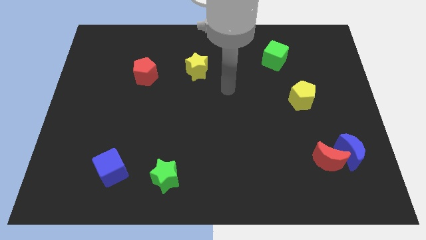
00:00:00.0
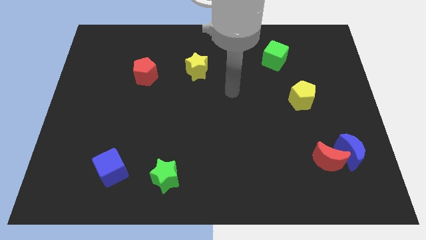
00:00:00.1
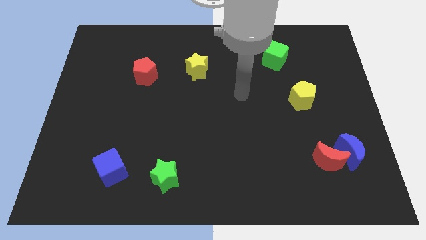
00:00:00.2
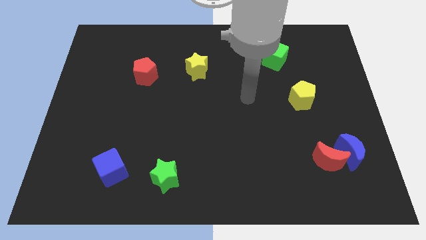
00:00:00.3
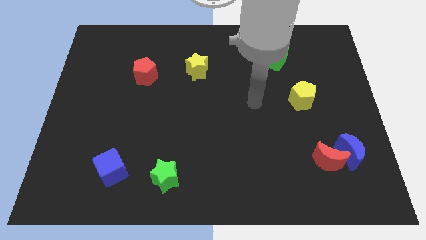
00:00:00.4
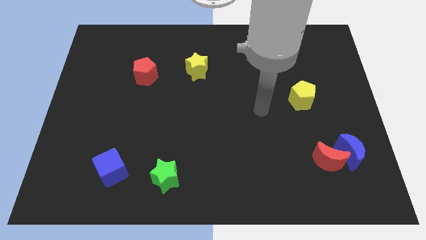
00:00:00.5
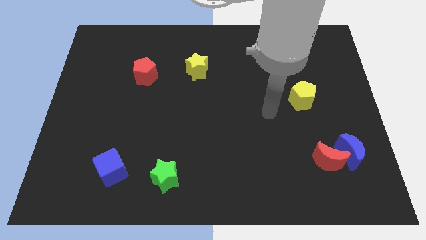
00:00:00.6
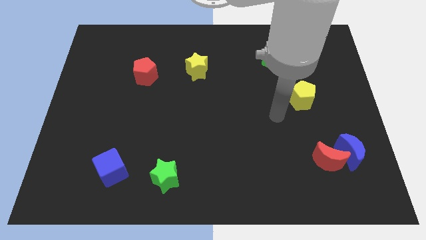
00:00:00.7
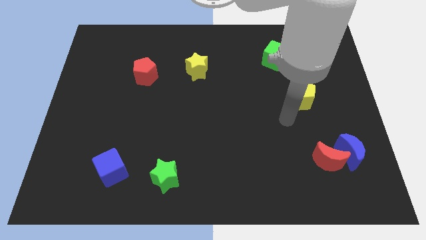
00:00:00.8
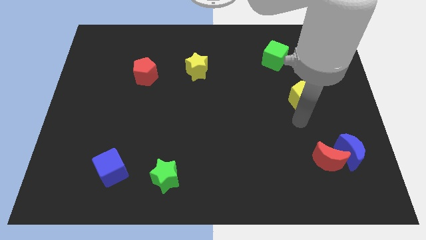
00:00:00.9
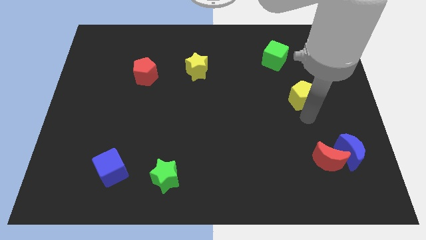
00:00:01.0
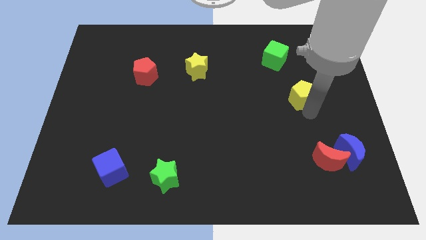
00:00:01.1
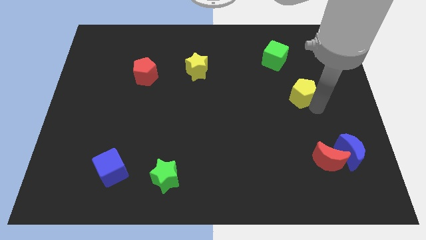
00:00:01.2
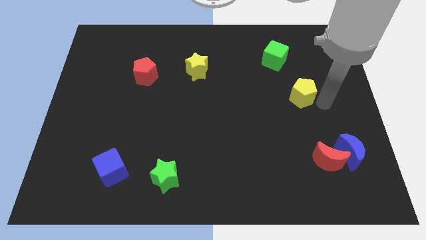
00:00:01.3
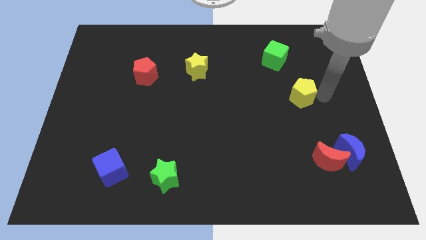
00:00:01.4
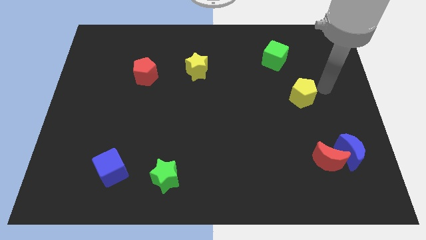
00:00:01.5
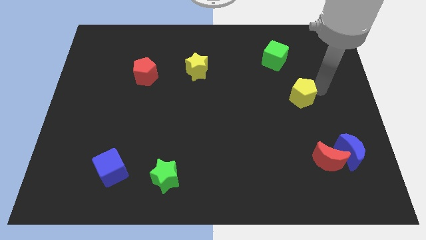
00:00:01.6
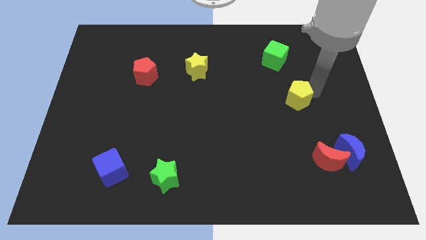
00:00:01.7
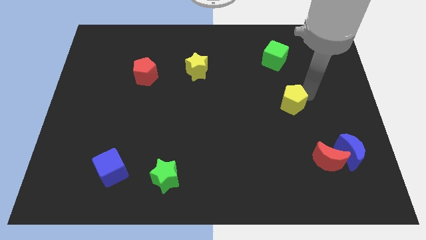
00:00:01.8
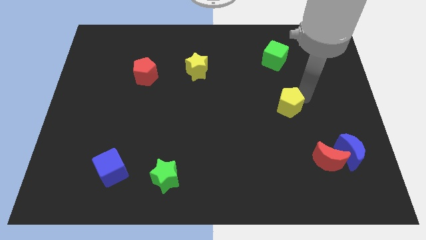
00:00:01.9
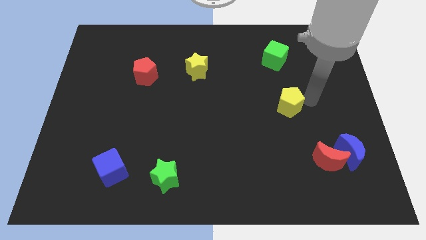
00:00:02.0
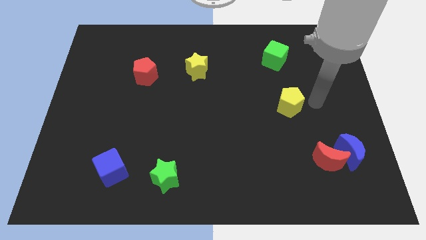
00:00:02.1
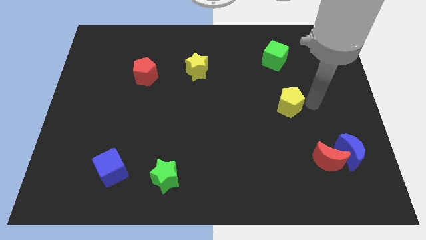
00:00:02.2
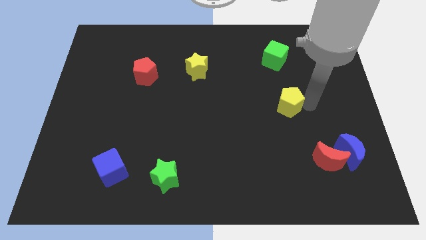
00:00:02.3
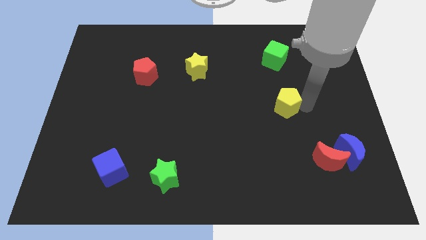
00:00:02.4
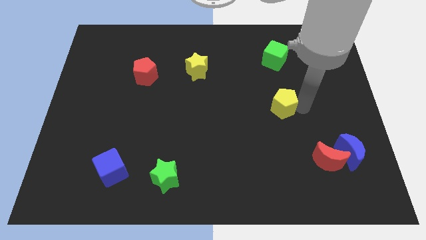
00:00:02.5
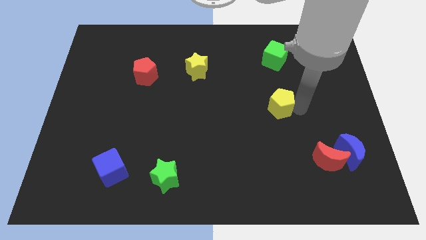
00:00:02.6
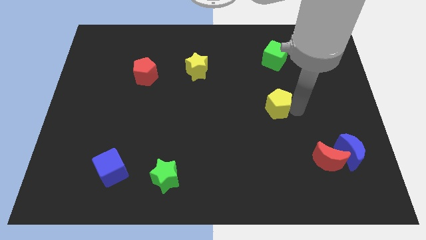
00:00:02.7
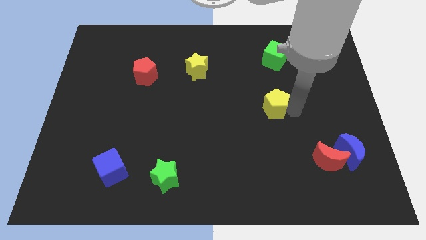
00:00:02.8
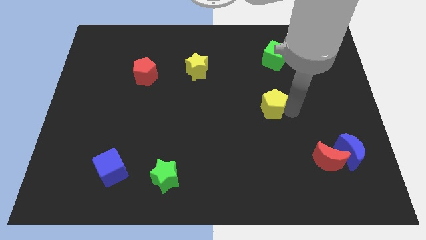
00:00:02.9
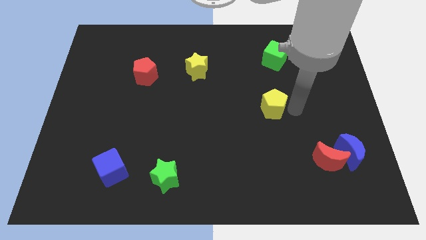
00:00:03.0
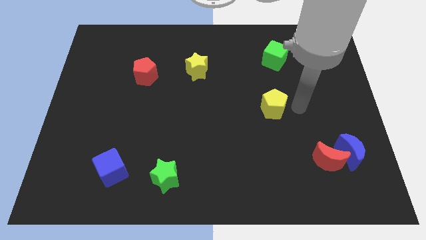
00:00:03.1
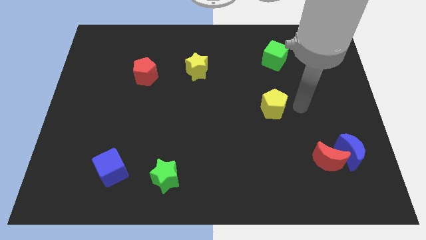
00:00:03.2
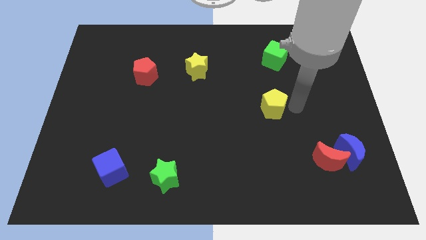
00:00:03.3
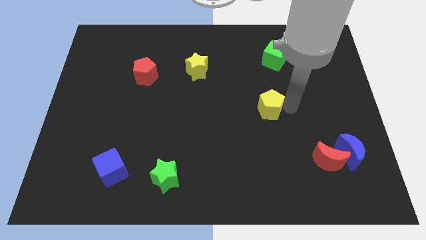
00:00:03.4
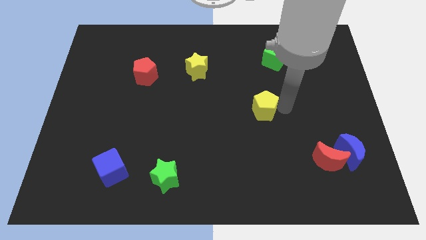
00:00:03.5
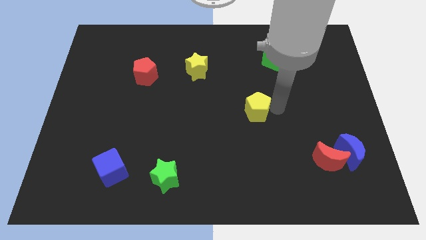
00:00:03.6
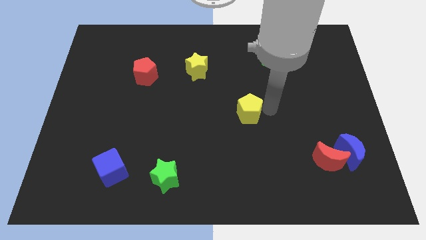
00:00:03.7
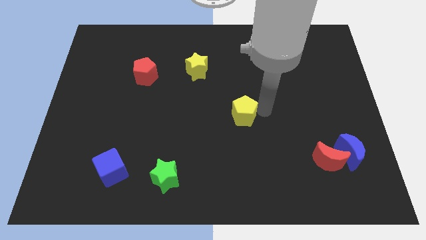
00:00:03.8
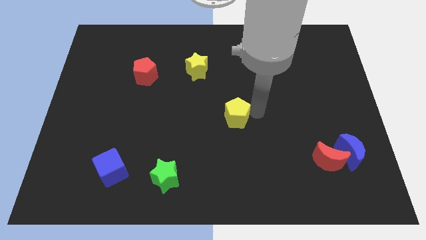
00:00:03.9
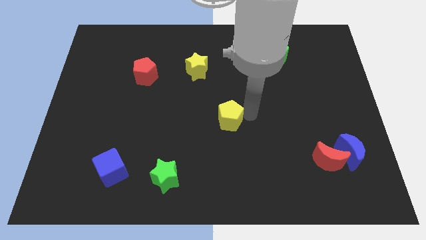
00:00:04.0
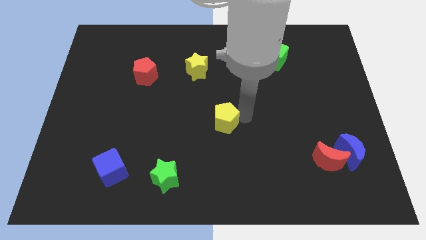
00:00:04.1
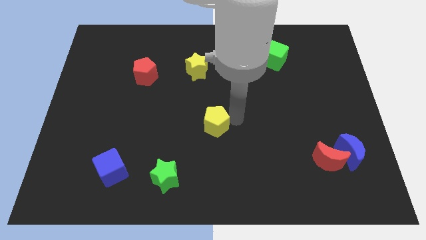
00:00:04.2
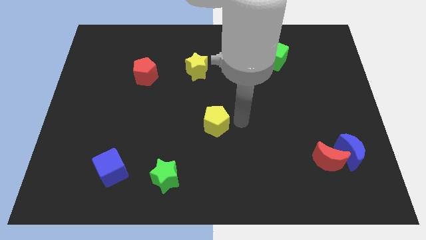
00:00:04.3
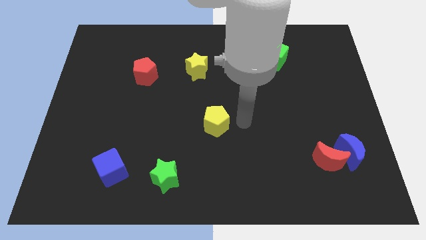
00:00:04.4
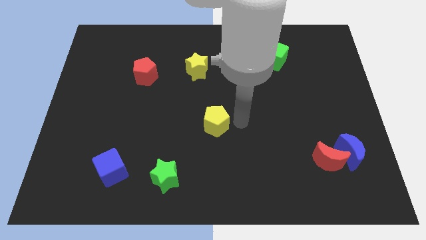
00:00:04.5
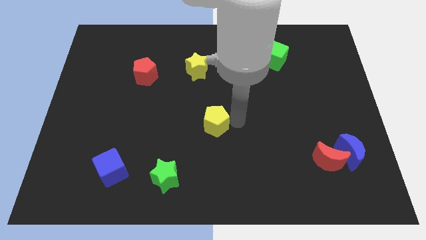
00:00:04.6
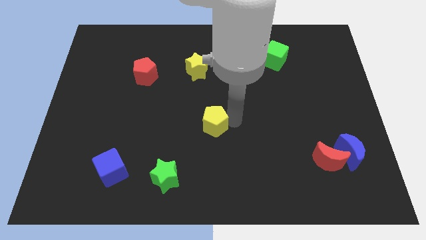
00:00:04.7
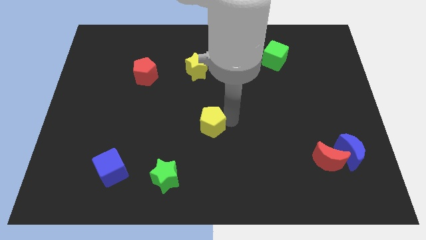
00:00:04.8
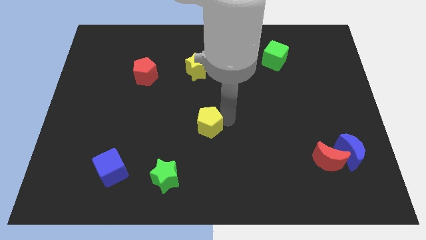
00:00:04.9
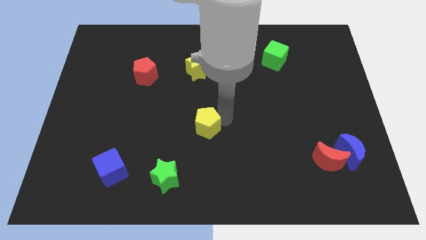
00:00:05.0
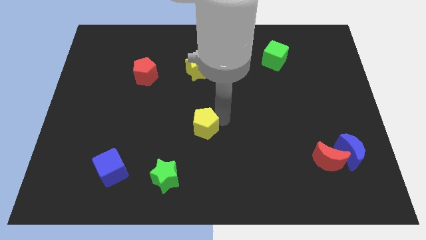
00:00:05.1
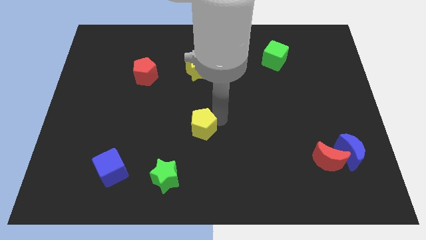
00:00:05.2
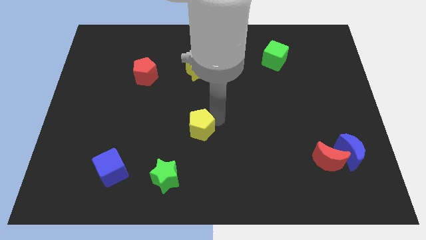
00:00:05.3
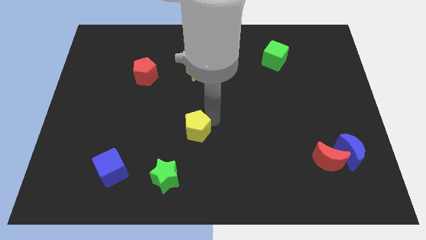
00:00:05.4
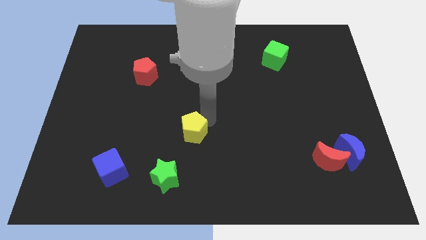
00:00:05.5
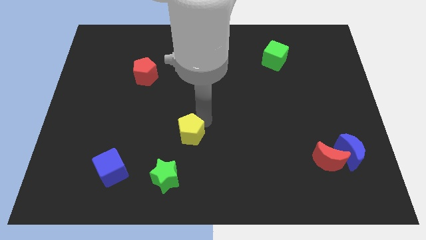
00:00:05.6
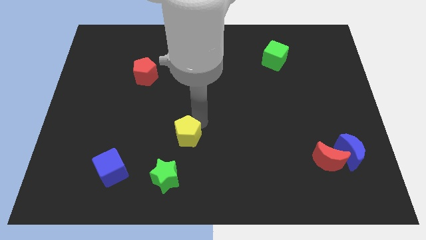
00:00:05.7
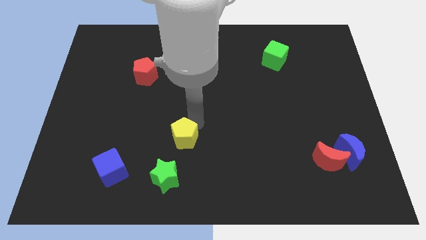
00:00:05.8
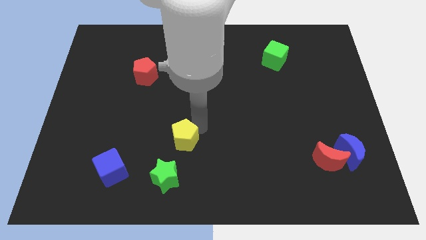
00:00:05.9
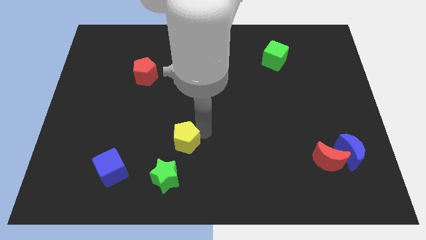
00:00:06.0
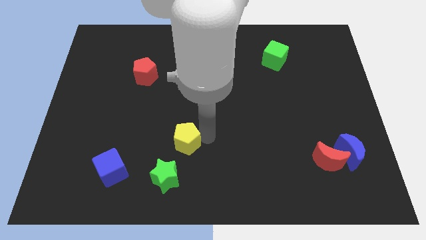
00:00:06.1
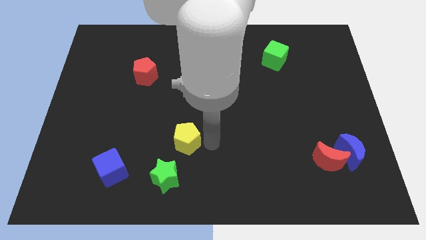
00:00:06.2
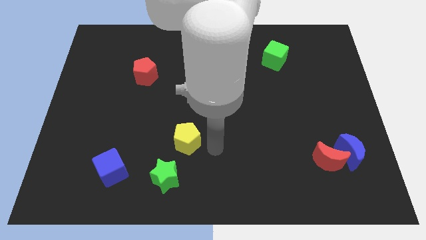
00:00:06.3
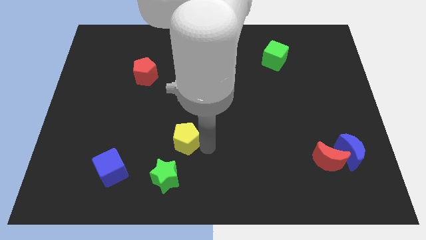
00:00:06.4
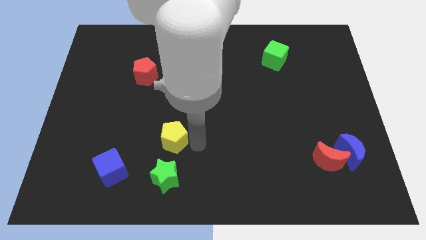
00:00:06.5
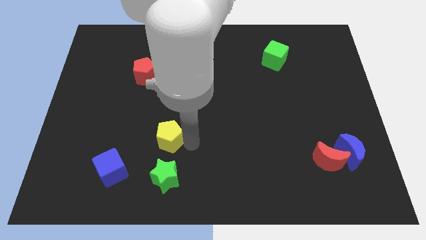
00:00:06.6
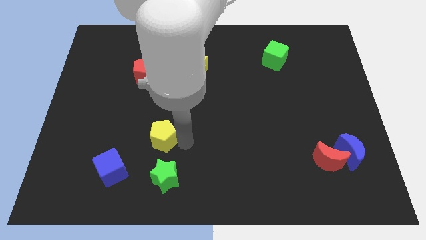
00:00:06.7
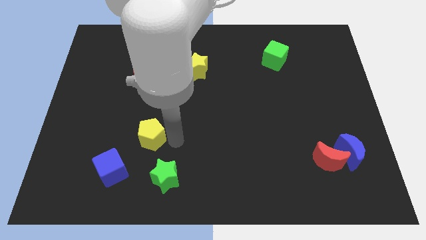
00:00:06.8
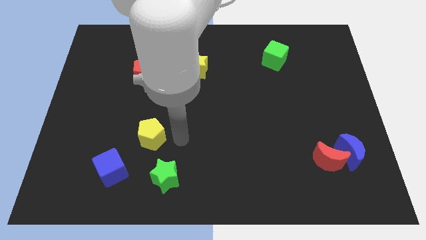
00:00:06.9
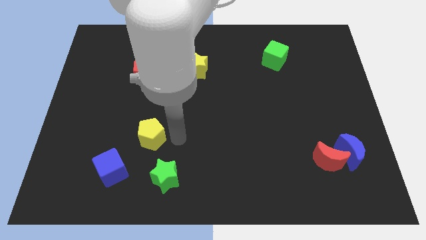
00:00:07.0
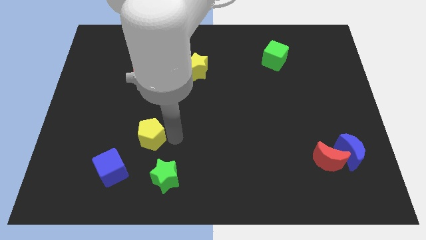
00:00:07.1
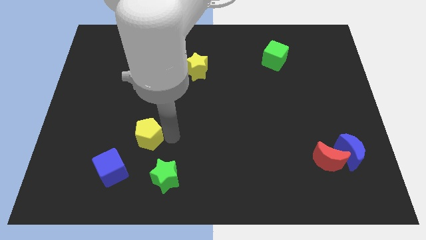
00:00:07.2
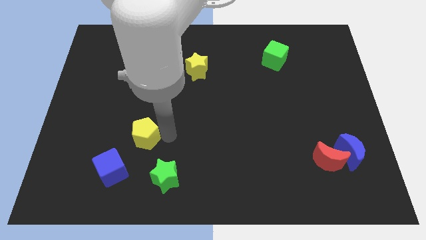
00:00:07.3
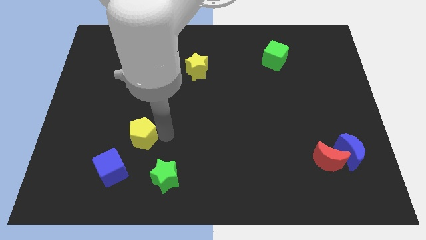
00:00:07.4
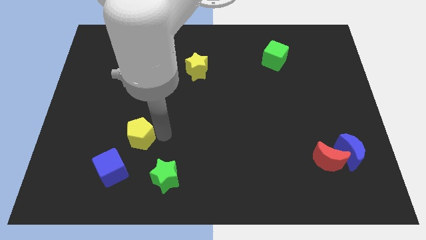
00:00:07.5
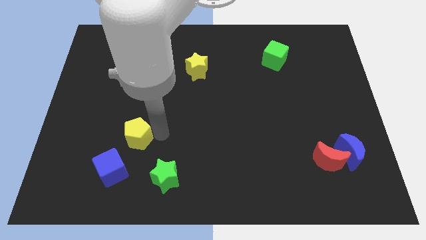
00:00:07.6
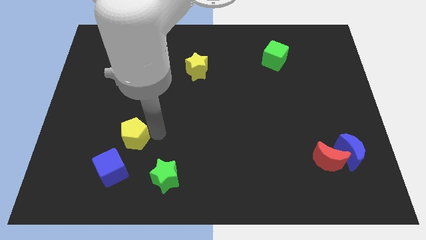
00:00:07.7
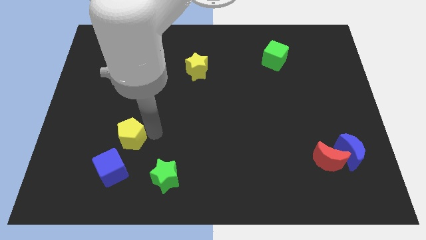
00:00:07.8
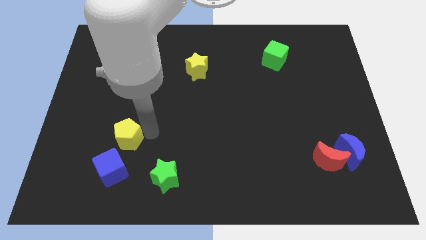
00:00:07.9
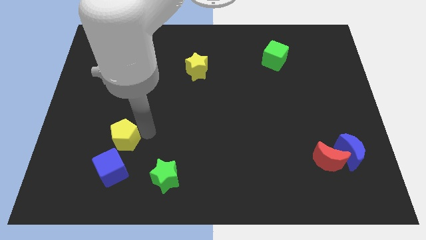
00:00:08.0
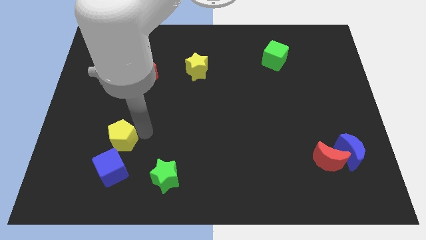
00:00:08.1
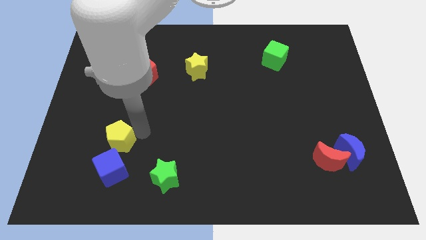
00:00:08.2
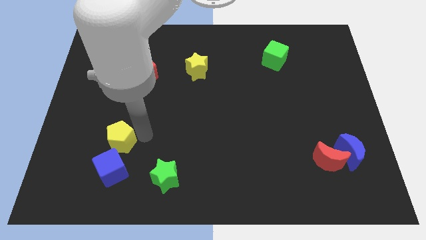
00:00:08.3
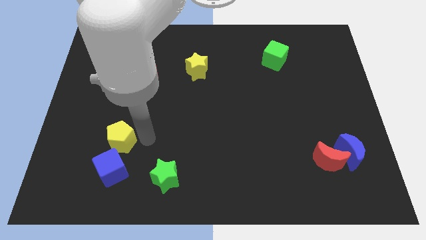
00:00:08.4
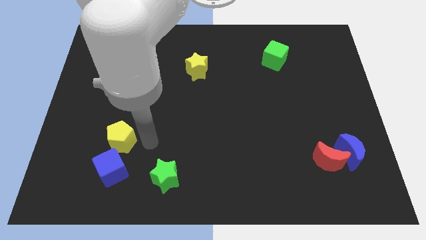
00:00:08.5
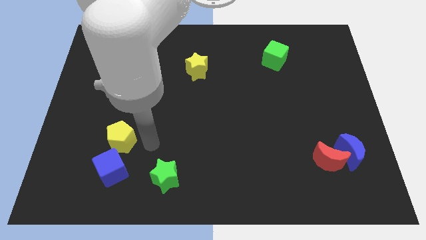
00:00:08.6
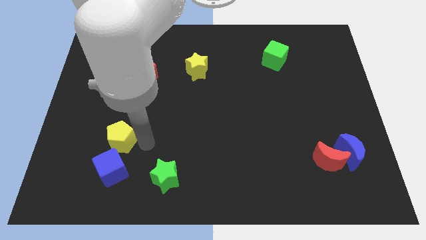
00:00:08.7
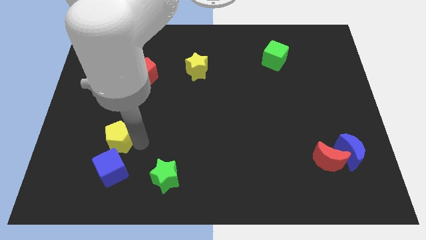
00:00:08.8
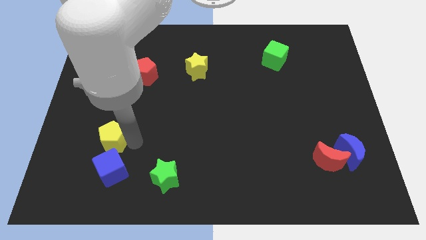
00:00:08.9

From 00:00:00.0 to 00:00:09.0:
slide the yellow pentagon to the top left side of the blue cube
